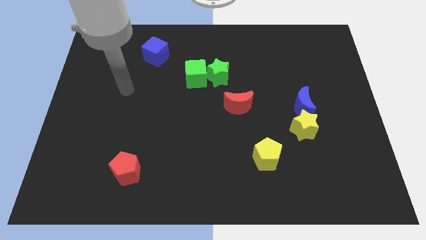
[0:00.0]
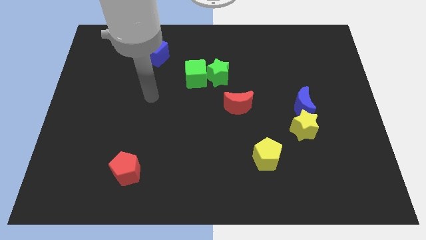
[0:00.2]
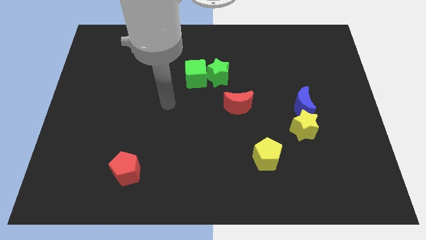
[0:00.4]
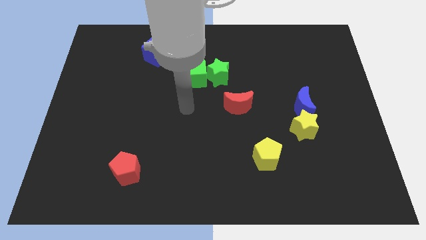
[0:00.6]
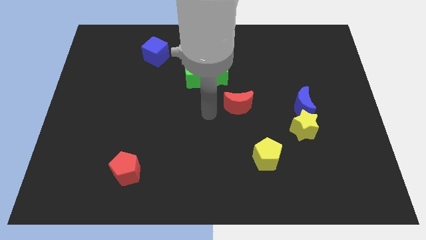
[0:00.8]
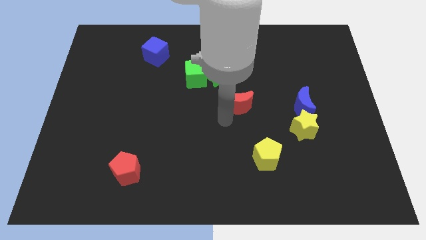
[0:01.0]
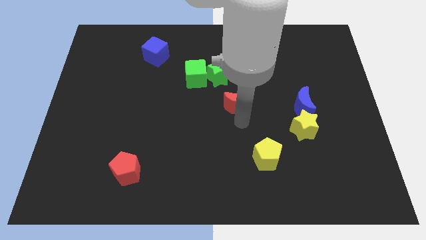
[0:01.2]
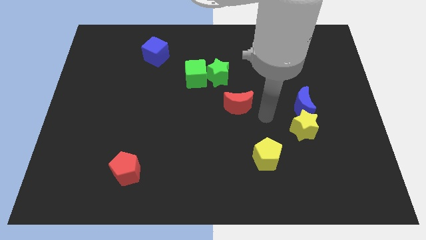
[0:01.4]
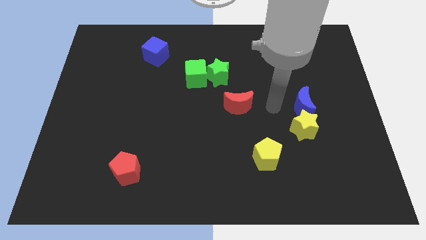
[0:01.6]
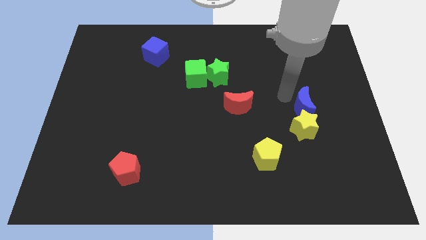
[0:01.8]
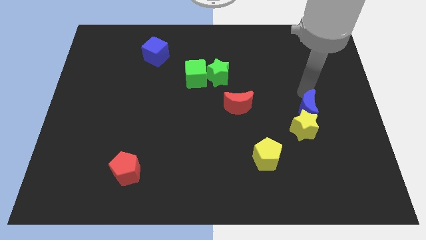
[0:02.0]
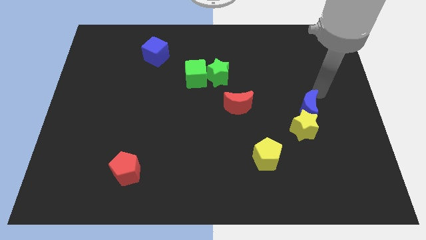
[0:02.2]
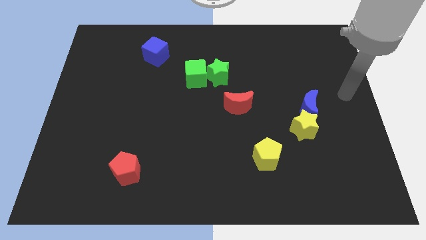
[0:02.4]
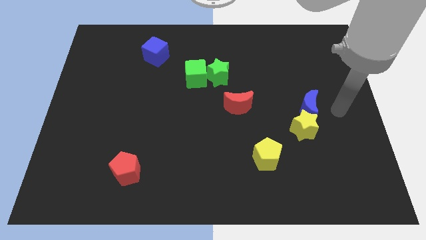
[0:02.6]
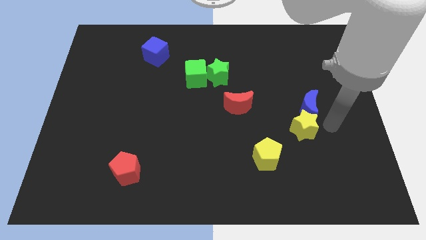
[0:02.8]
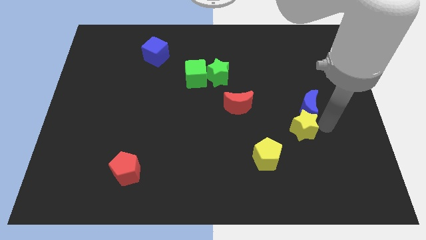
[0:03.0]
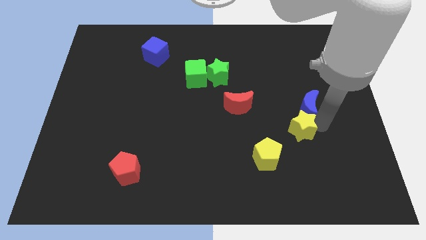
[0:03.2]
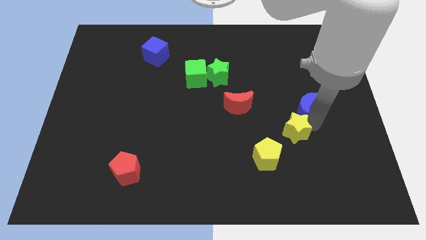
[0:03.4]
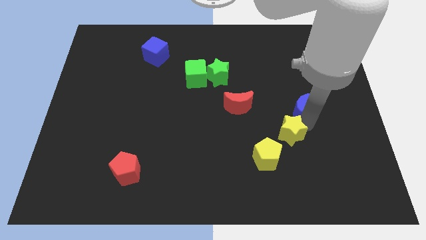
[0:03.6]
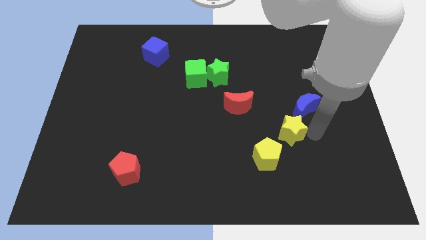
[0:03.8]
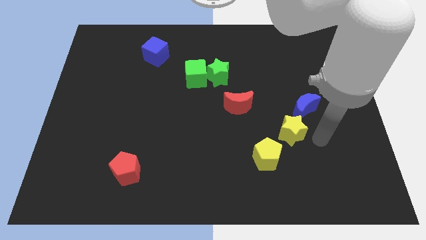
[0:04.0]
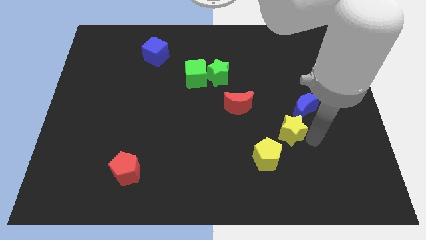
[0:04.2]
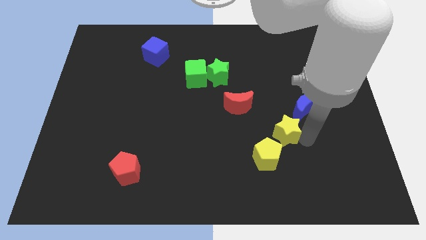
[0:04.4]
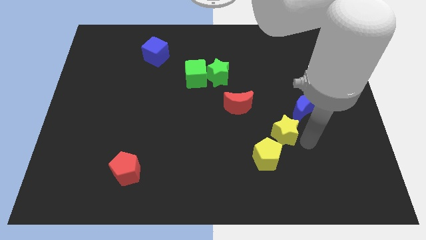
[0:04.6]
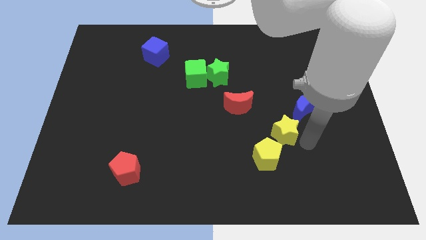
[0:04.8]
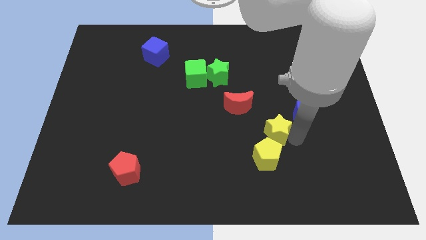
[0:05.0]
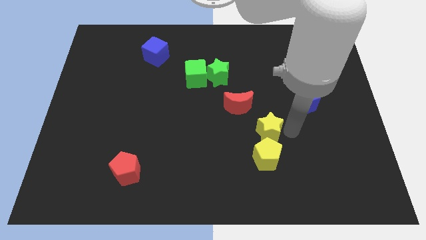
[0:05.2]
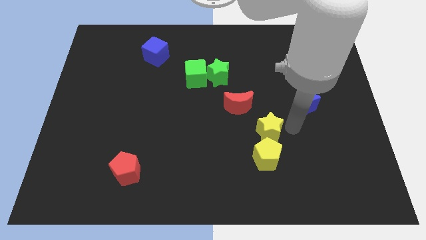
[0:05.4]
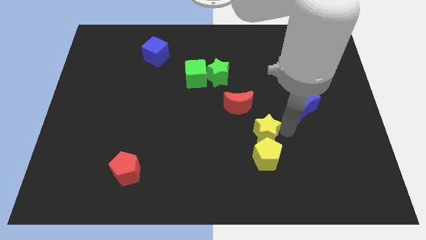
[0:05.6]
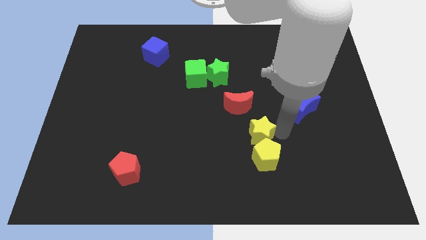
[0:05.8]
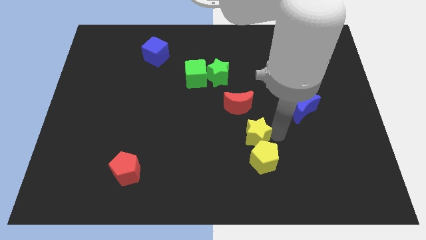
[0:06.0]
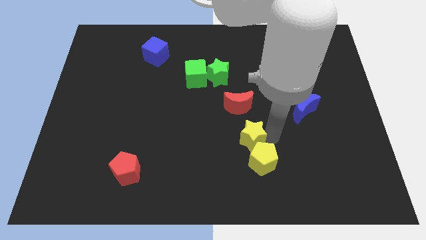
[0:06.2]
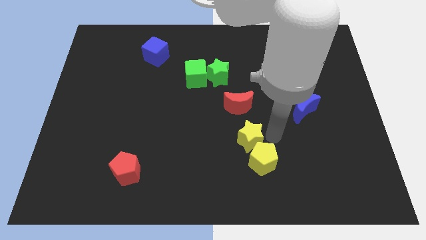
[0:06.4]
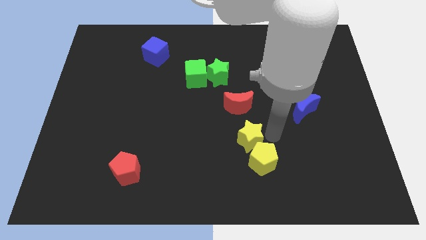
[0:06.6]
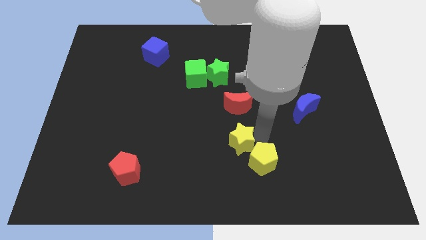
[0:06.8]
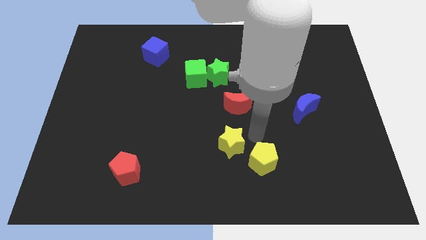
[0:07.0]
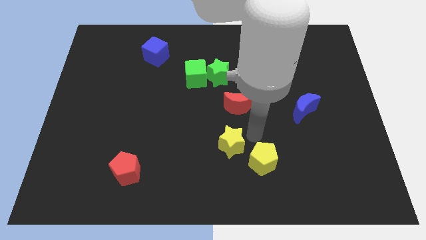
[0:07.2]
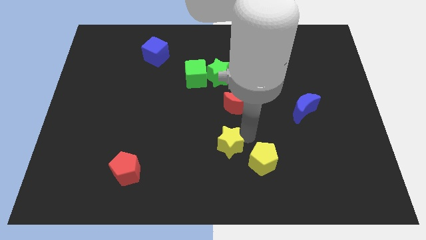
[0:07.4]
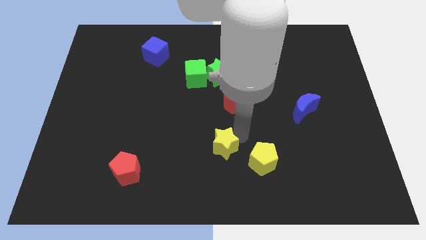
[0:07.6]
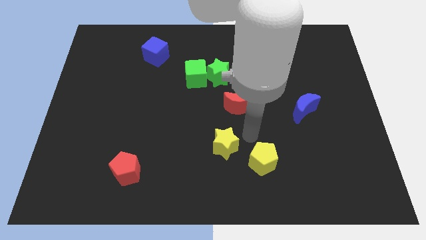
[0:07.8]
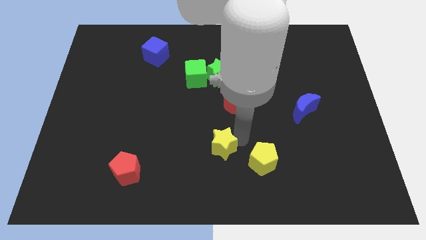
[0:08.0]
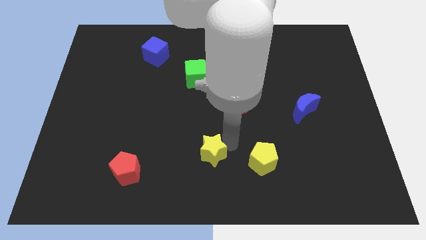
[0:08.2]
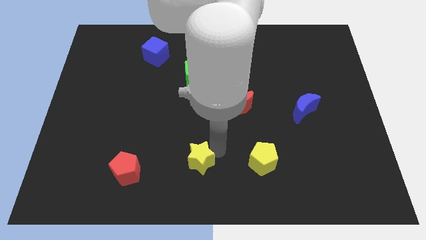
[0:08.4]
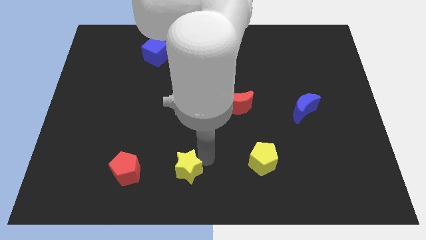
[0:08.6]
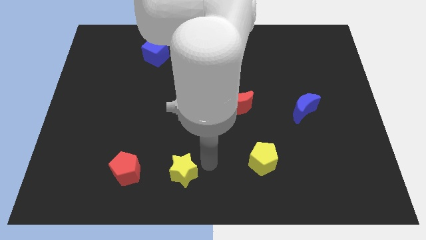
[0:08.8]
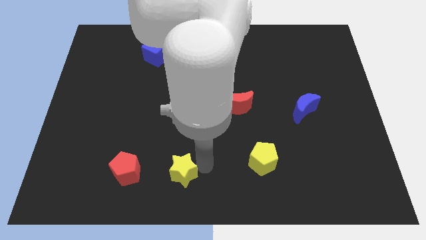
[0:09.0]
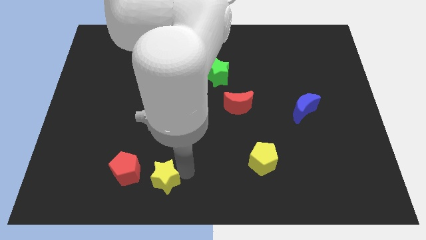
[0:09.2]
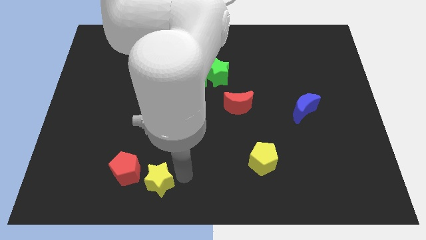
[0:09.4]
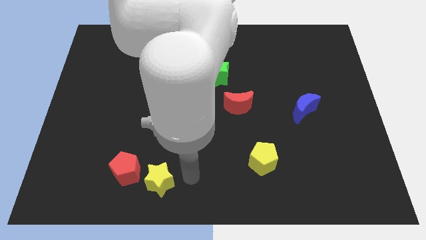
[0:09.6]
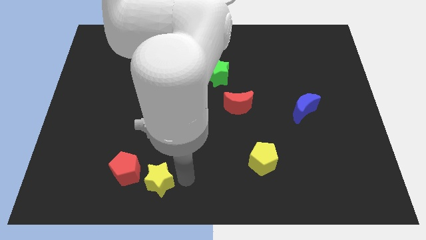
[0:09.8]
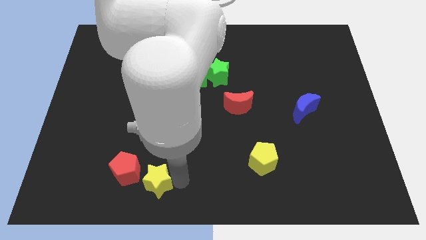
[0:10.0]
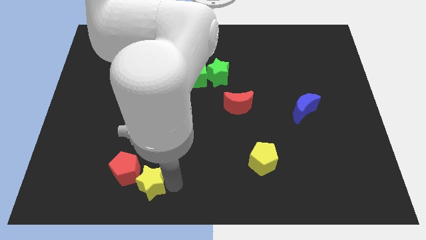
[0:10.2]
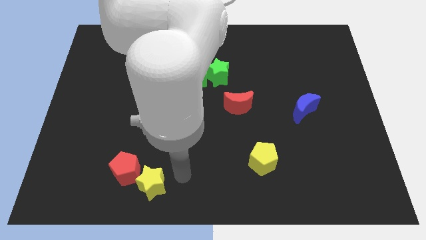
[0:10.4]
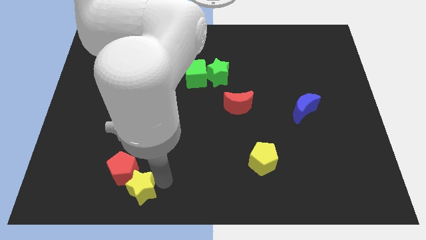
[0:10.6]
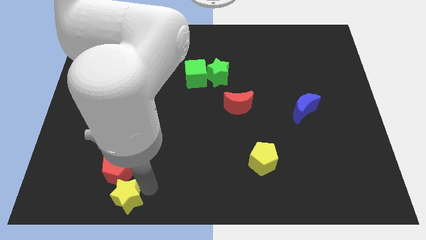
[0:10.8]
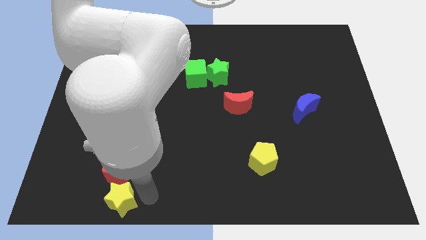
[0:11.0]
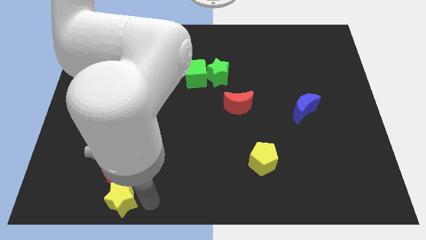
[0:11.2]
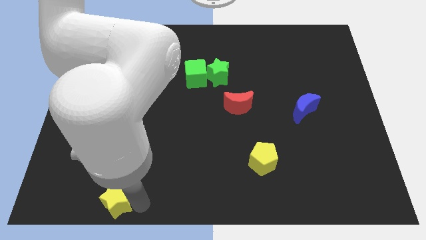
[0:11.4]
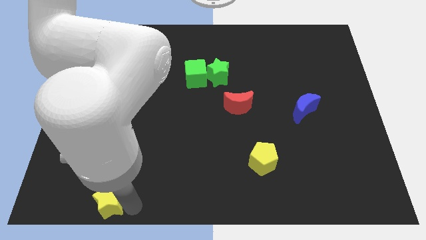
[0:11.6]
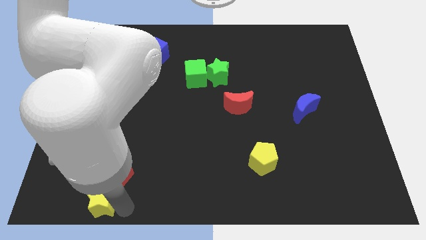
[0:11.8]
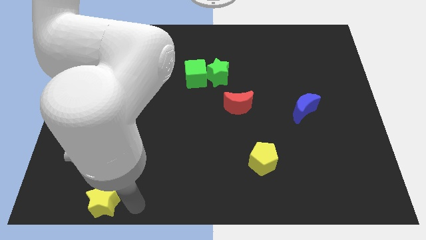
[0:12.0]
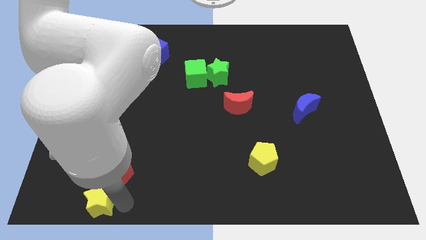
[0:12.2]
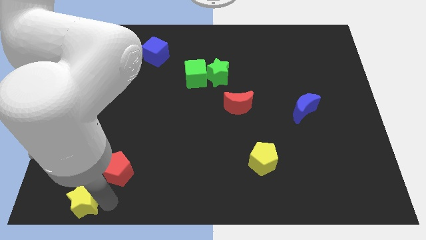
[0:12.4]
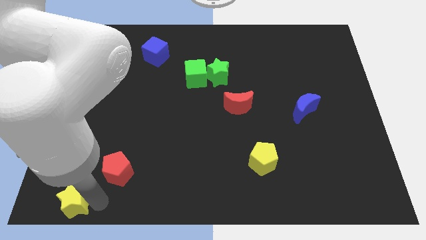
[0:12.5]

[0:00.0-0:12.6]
push the yellow star to the lower left corner
